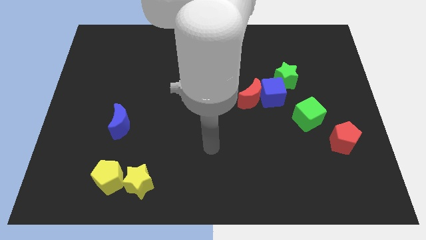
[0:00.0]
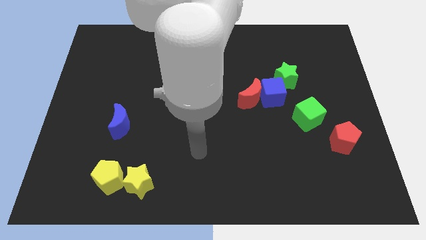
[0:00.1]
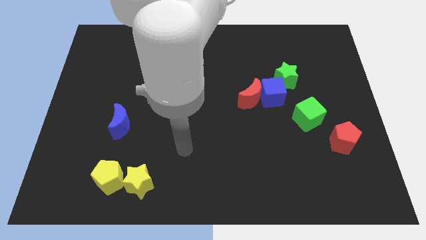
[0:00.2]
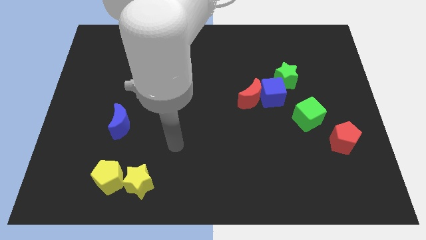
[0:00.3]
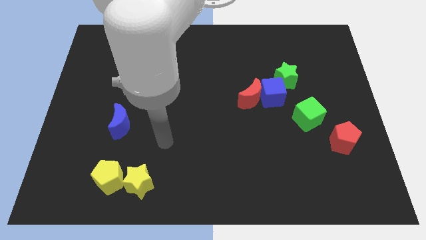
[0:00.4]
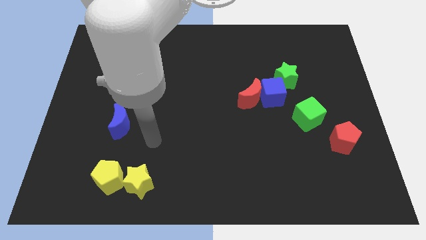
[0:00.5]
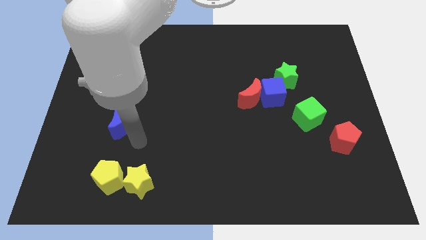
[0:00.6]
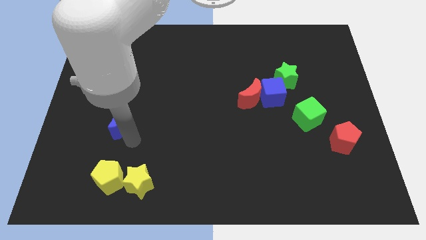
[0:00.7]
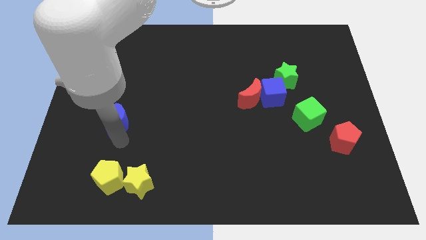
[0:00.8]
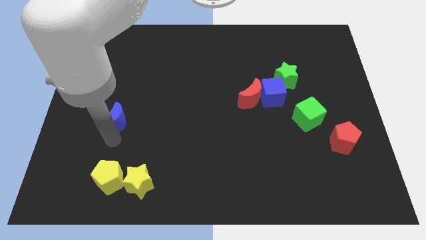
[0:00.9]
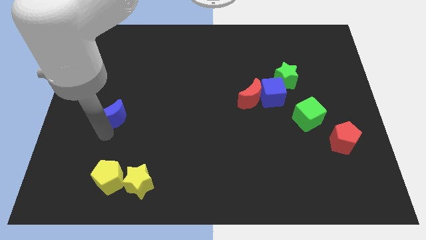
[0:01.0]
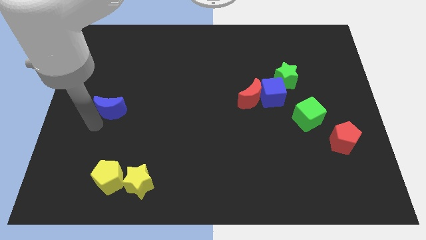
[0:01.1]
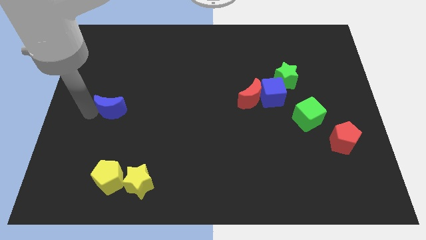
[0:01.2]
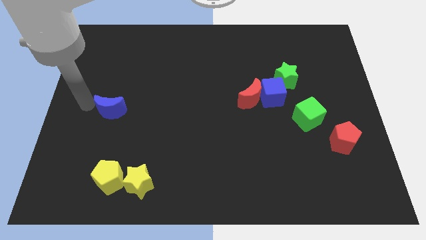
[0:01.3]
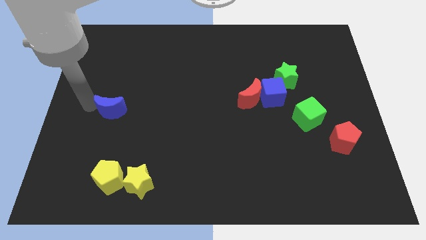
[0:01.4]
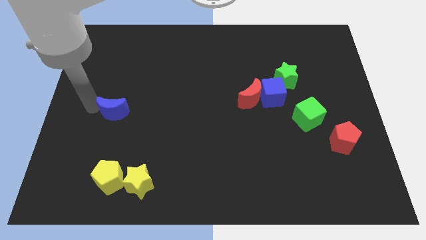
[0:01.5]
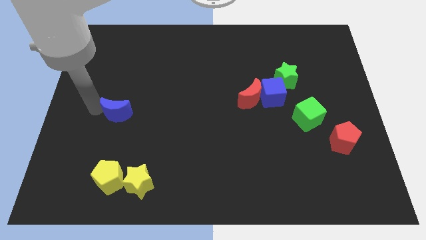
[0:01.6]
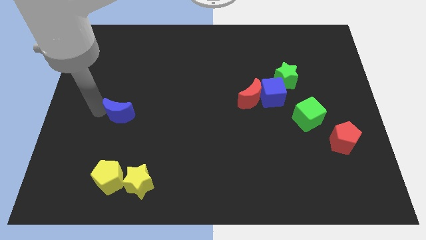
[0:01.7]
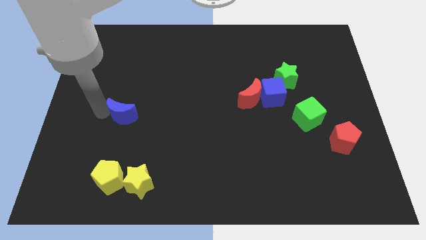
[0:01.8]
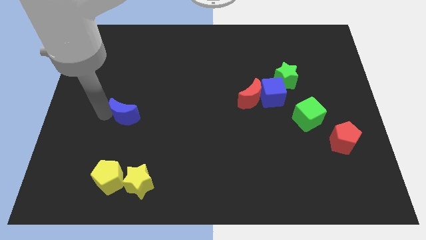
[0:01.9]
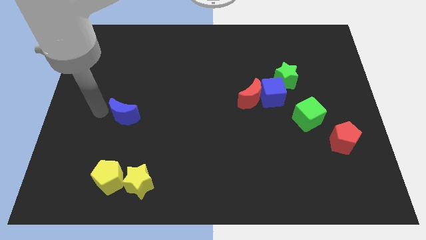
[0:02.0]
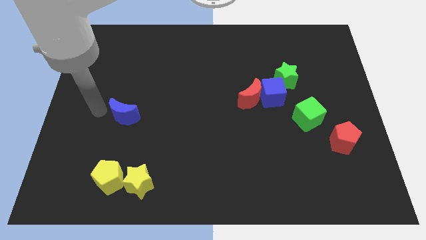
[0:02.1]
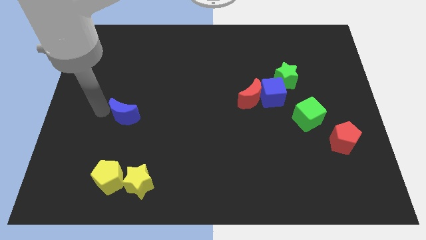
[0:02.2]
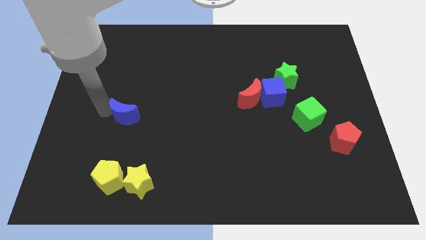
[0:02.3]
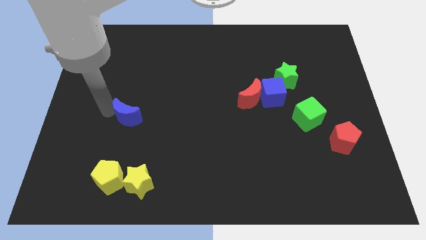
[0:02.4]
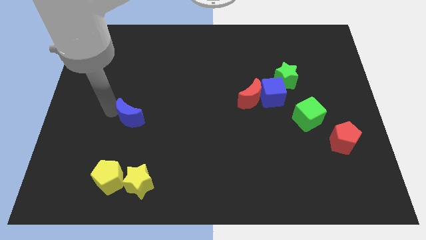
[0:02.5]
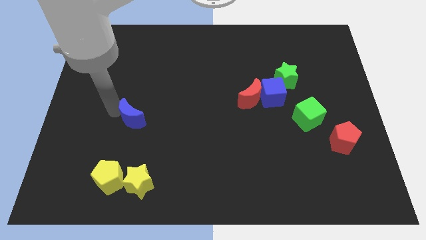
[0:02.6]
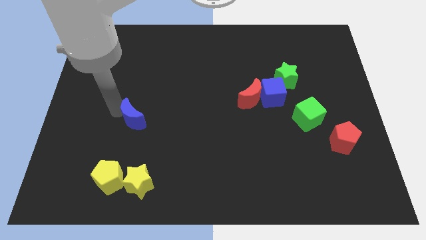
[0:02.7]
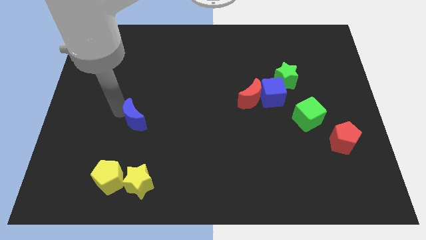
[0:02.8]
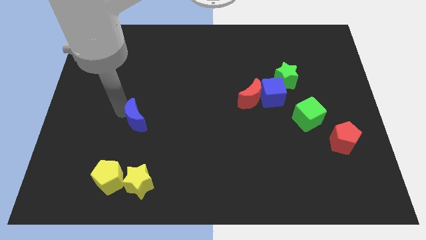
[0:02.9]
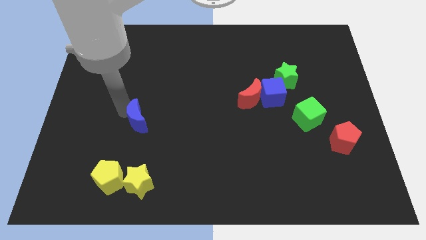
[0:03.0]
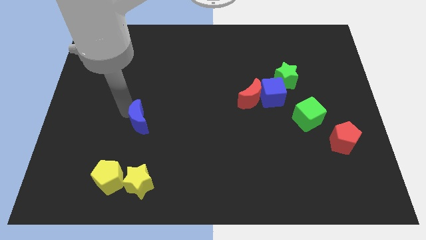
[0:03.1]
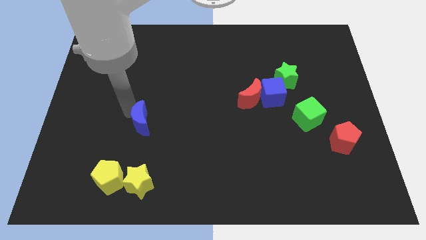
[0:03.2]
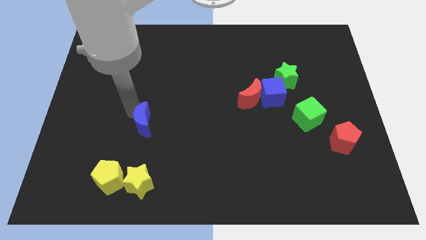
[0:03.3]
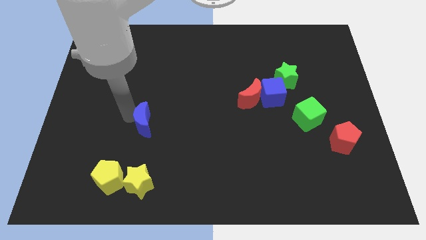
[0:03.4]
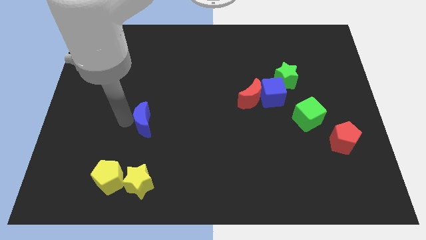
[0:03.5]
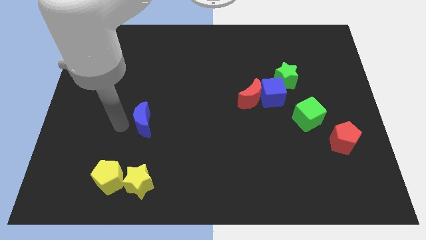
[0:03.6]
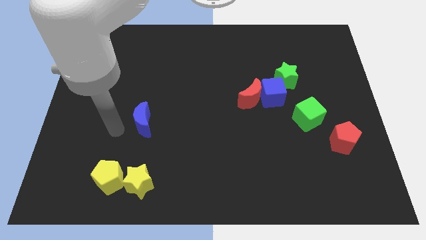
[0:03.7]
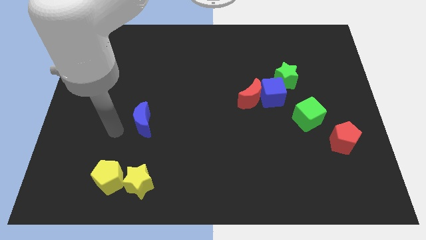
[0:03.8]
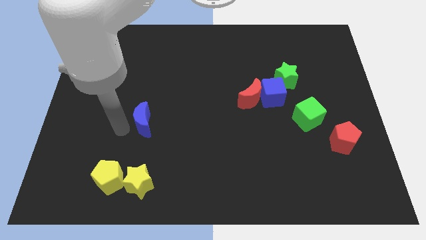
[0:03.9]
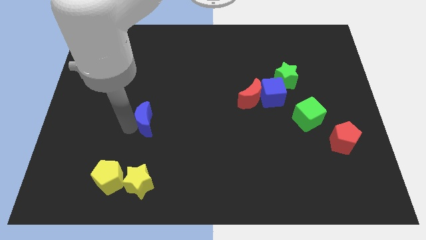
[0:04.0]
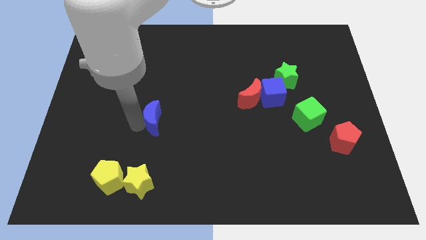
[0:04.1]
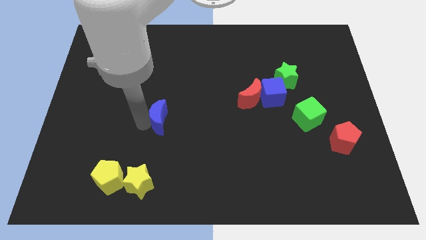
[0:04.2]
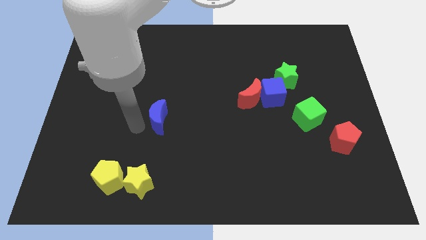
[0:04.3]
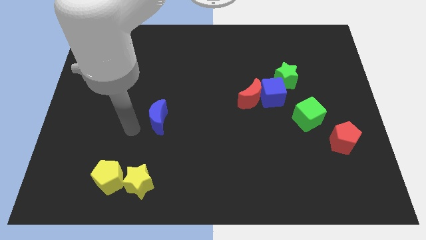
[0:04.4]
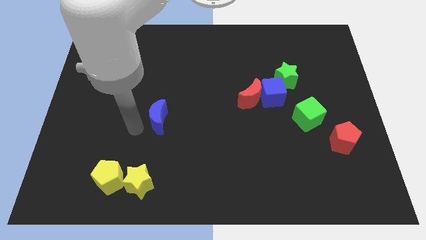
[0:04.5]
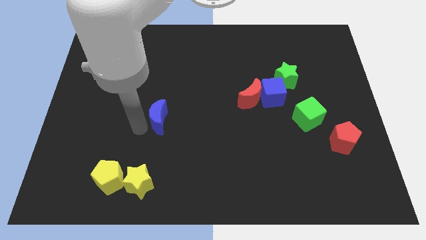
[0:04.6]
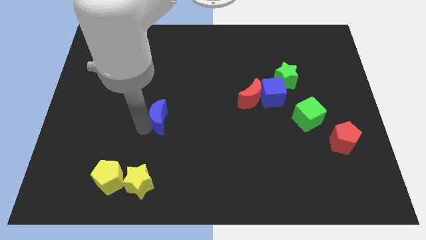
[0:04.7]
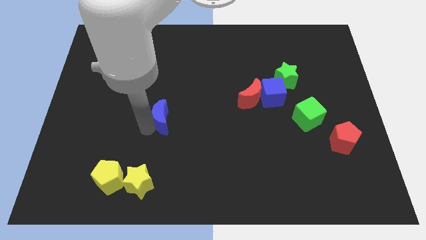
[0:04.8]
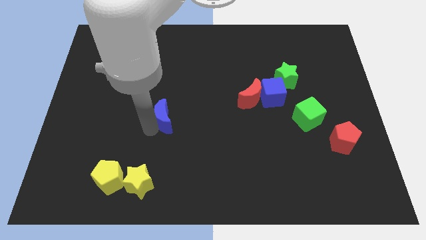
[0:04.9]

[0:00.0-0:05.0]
put the blue moon to the middle

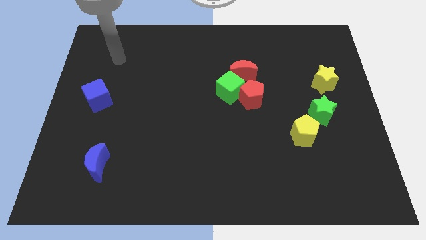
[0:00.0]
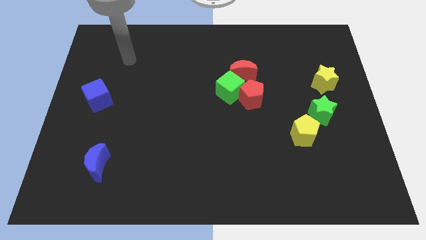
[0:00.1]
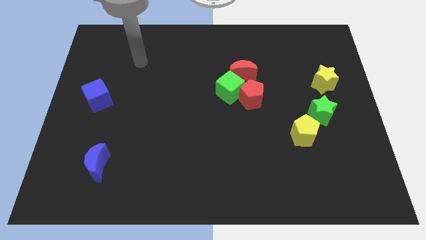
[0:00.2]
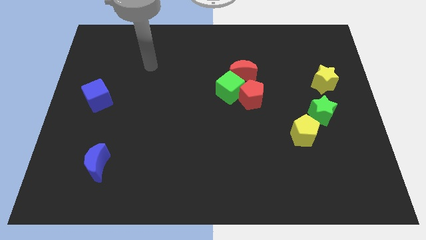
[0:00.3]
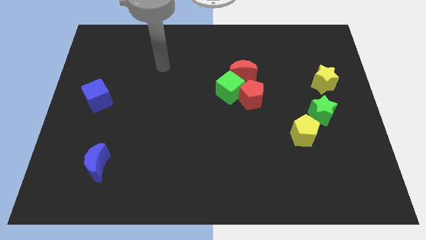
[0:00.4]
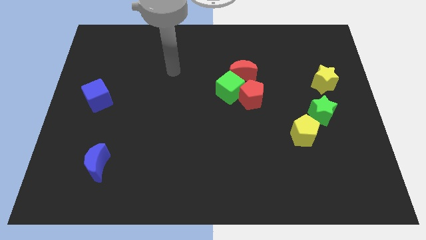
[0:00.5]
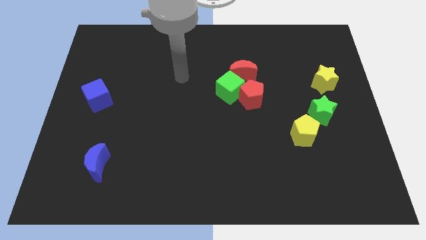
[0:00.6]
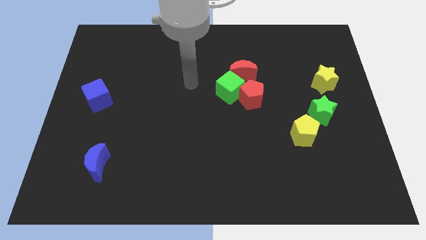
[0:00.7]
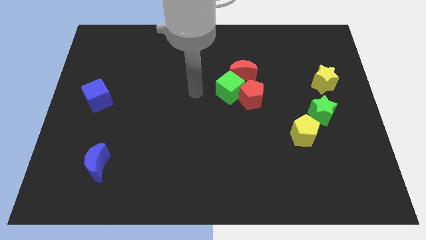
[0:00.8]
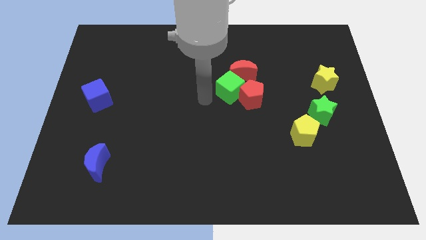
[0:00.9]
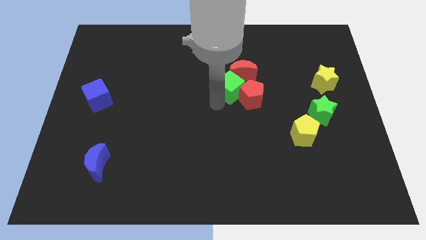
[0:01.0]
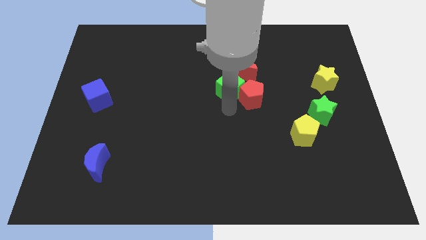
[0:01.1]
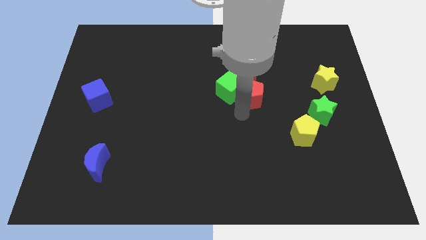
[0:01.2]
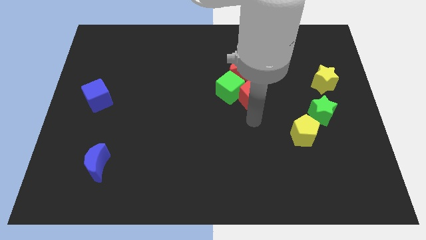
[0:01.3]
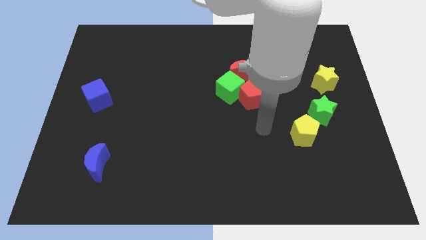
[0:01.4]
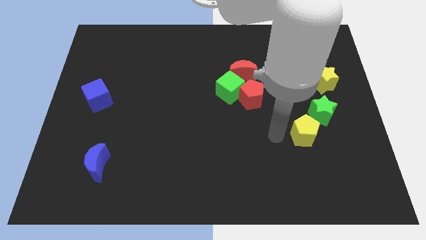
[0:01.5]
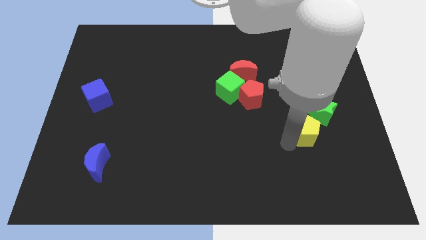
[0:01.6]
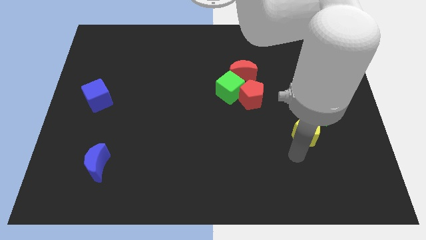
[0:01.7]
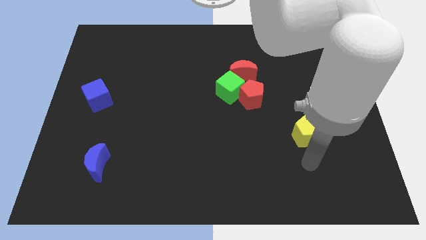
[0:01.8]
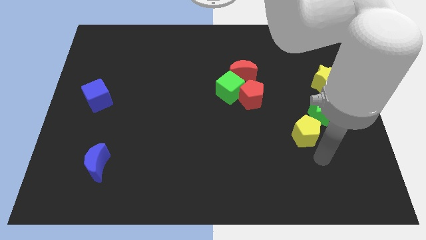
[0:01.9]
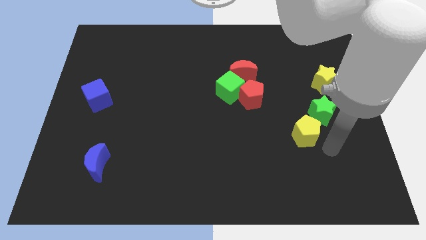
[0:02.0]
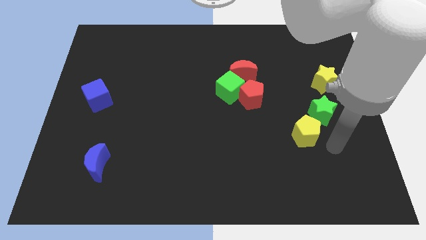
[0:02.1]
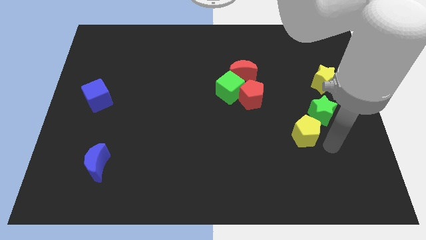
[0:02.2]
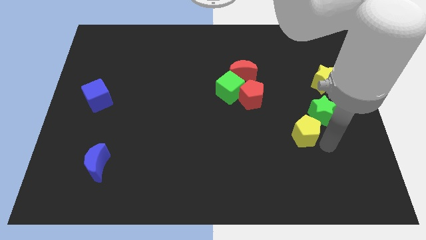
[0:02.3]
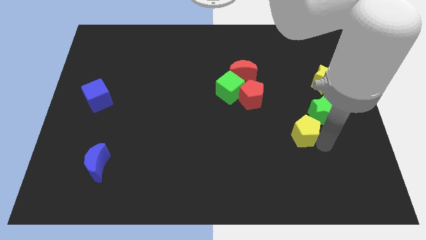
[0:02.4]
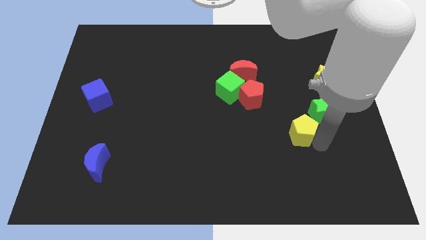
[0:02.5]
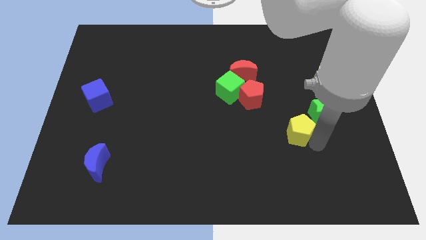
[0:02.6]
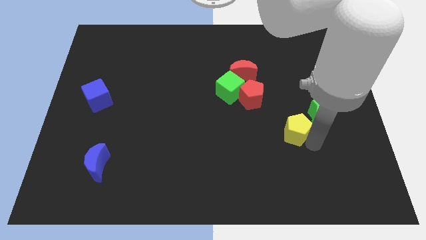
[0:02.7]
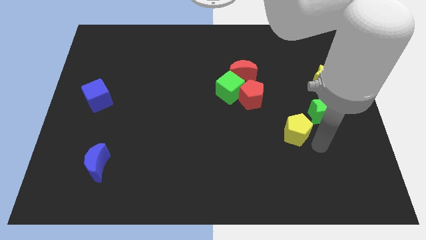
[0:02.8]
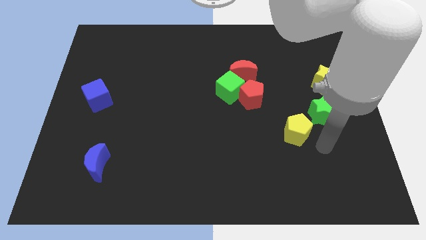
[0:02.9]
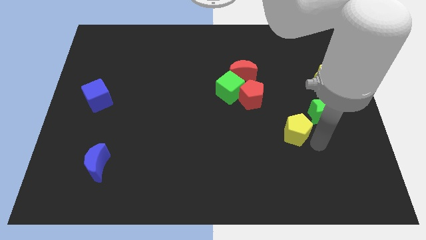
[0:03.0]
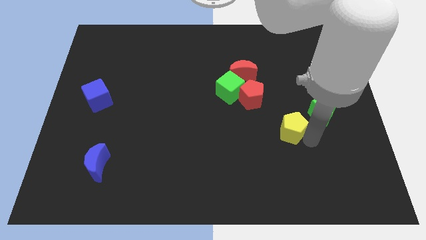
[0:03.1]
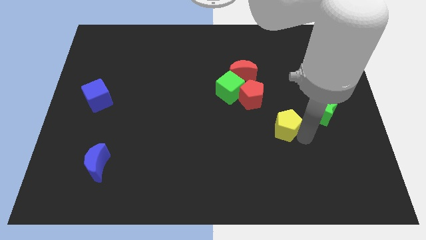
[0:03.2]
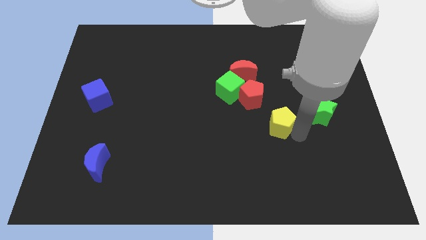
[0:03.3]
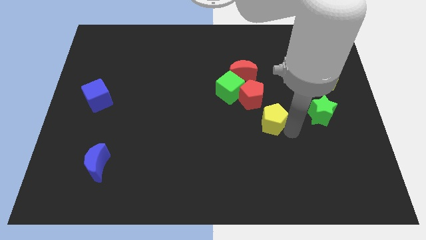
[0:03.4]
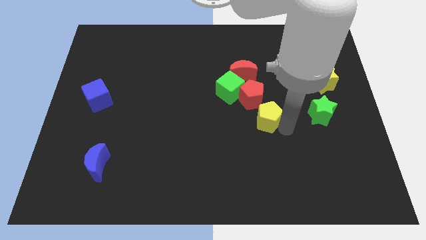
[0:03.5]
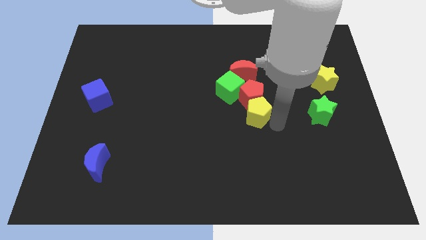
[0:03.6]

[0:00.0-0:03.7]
move the yellow pentagon to the center of the board
